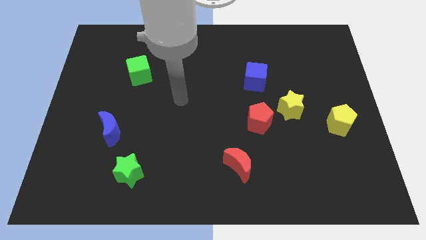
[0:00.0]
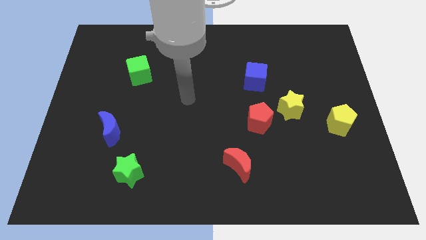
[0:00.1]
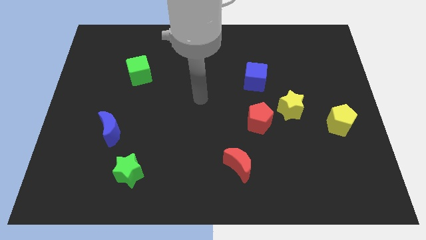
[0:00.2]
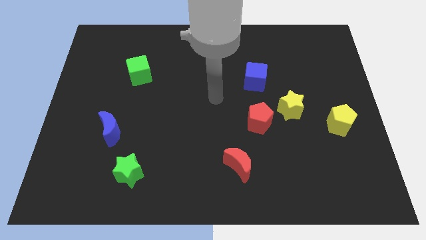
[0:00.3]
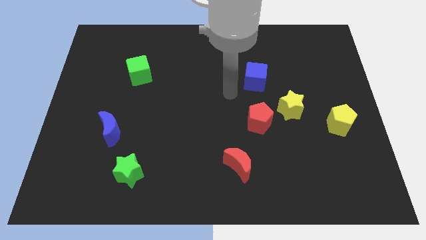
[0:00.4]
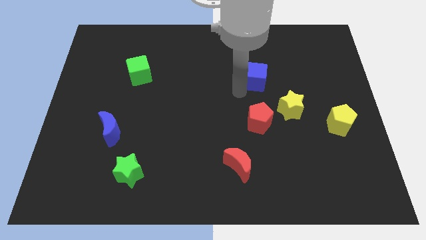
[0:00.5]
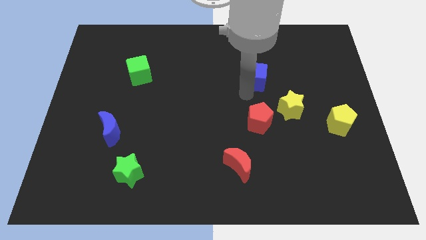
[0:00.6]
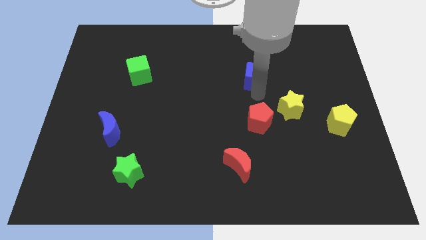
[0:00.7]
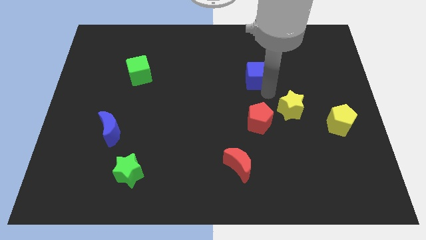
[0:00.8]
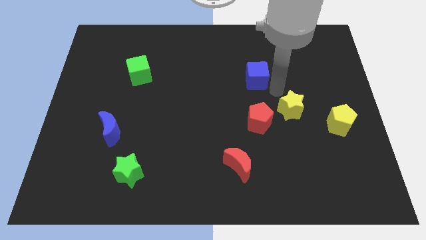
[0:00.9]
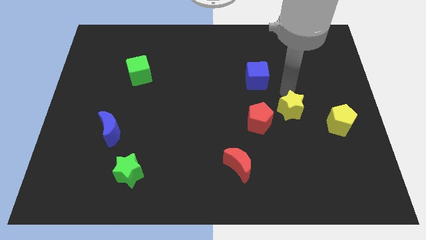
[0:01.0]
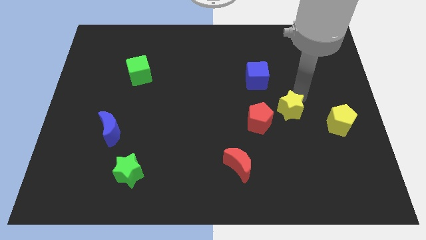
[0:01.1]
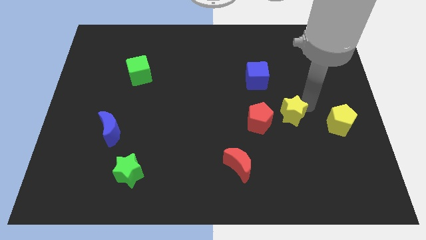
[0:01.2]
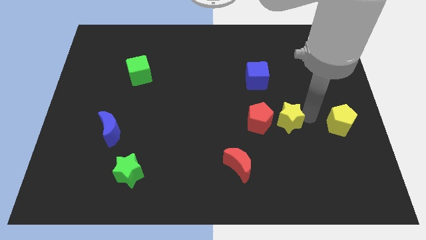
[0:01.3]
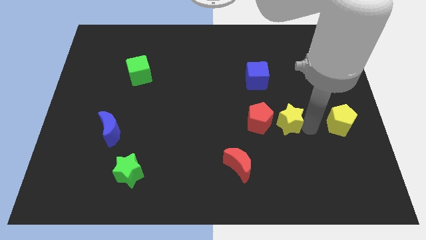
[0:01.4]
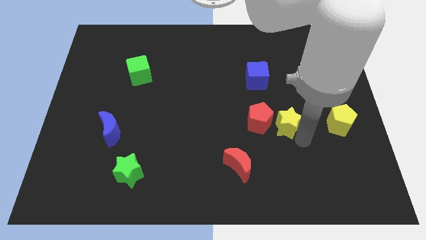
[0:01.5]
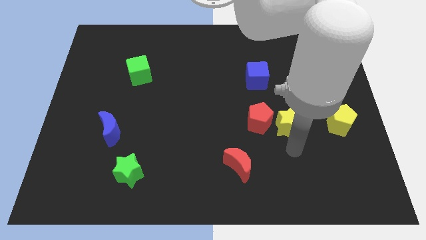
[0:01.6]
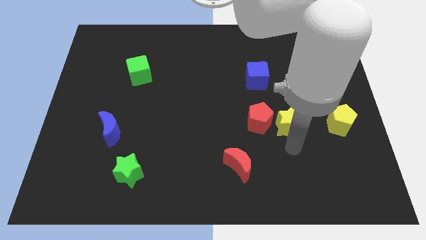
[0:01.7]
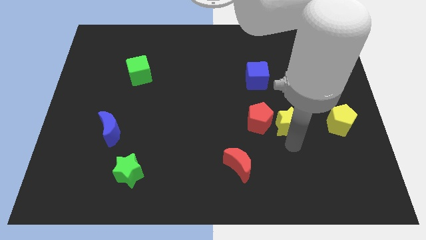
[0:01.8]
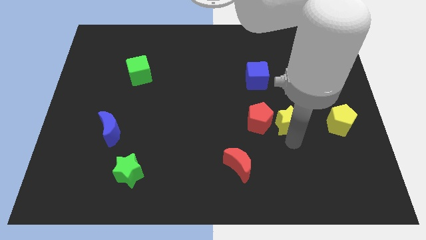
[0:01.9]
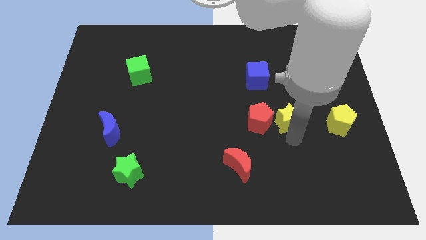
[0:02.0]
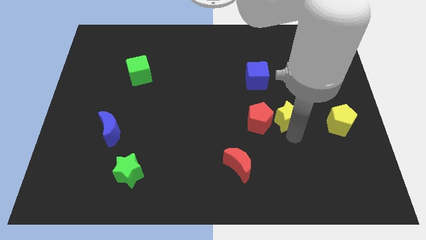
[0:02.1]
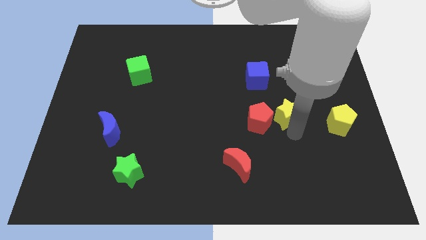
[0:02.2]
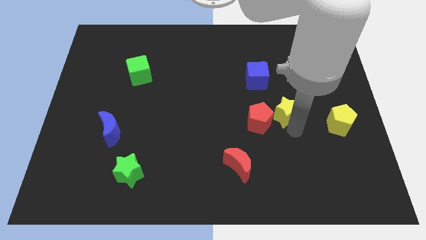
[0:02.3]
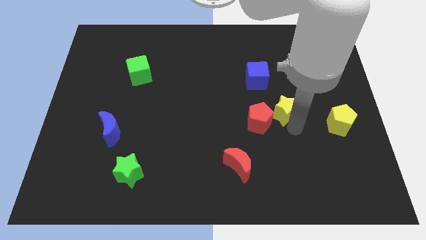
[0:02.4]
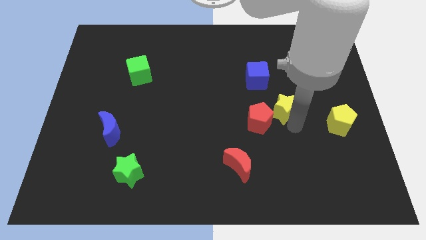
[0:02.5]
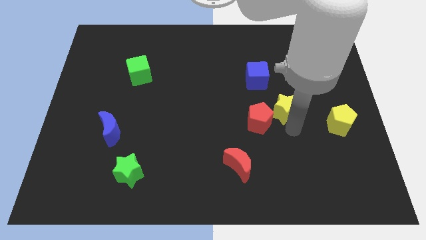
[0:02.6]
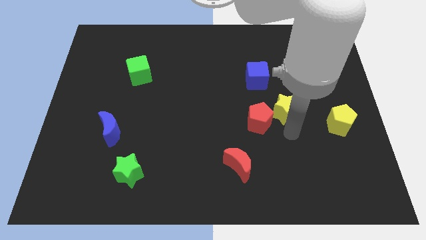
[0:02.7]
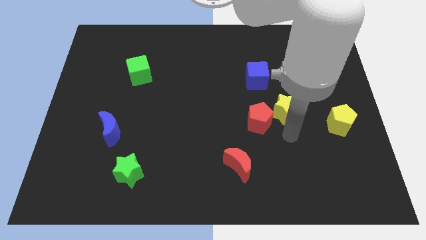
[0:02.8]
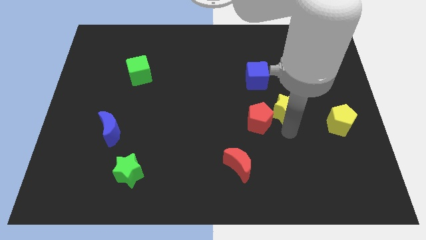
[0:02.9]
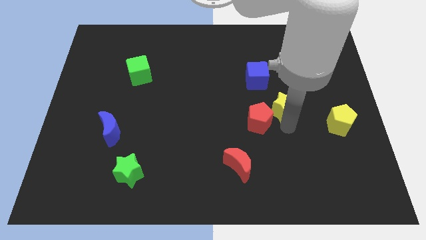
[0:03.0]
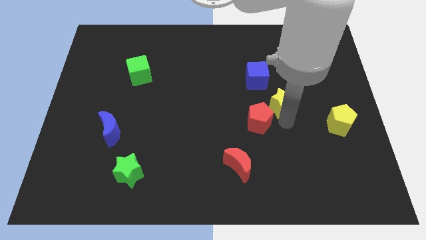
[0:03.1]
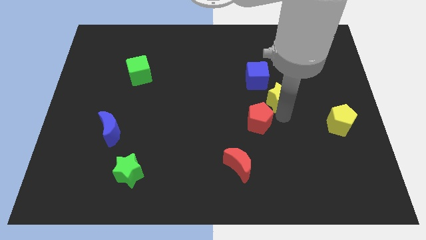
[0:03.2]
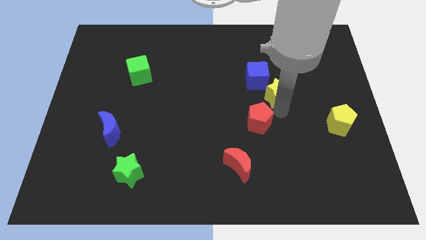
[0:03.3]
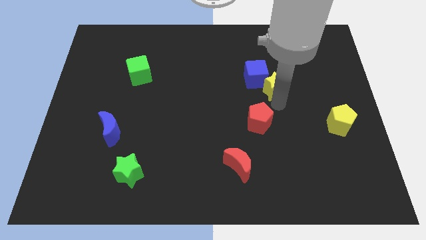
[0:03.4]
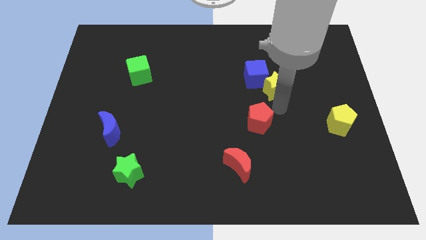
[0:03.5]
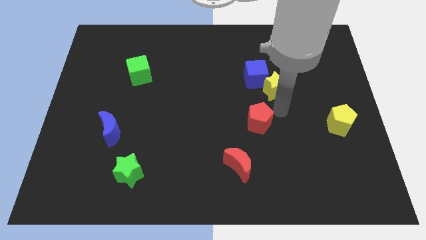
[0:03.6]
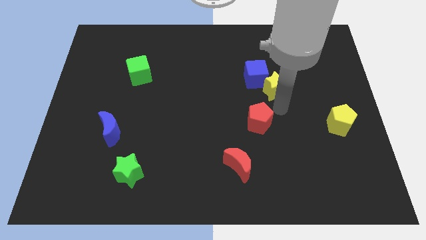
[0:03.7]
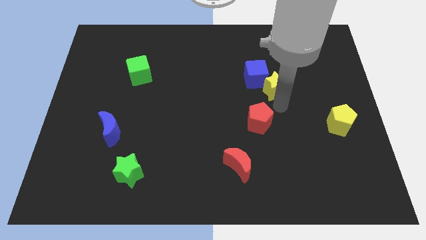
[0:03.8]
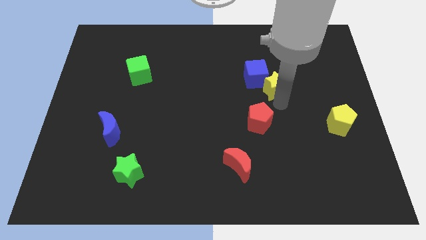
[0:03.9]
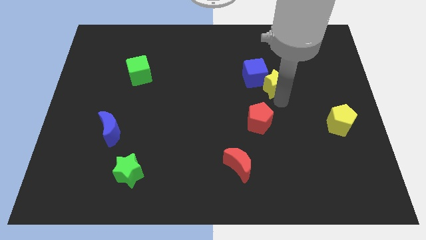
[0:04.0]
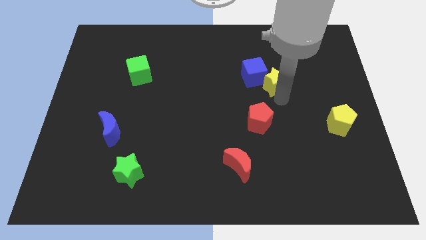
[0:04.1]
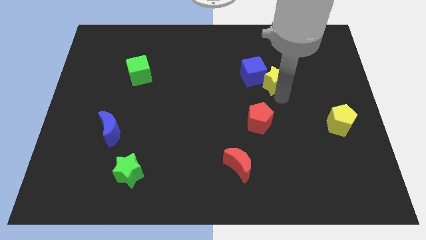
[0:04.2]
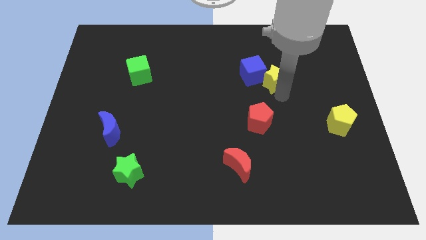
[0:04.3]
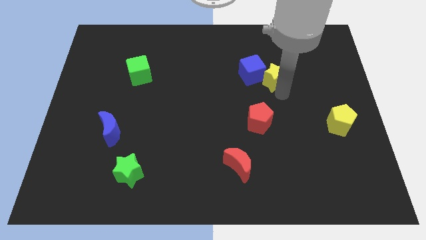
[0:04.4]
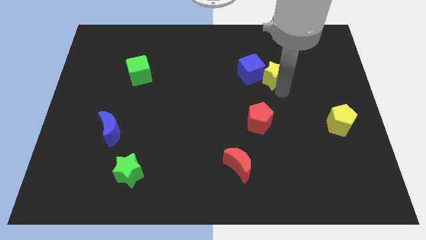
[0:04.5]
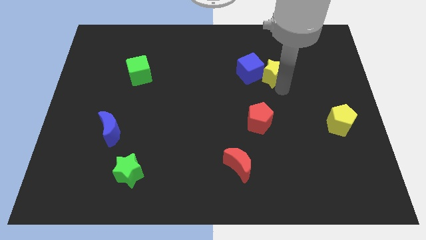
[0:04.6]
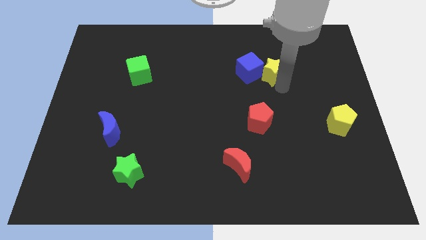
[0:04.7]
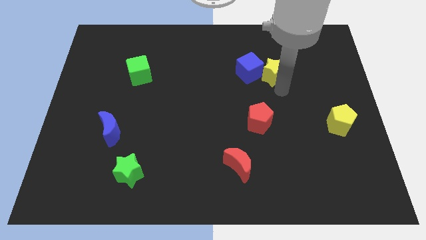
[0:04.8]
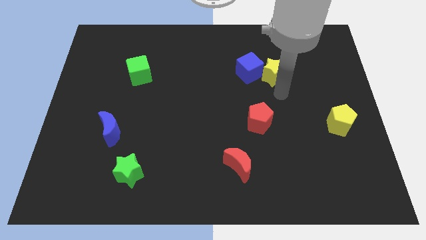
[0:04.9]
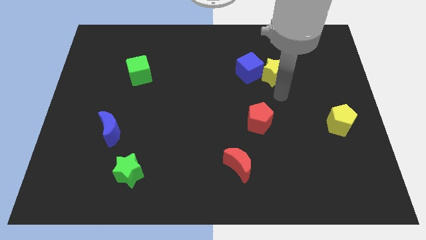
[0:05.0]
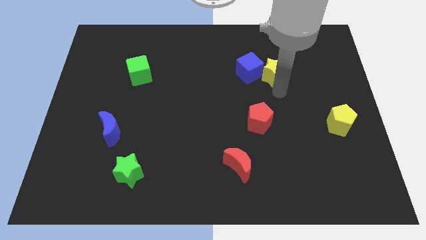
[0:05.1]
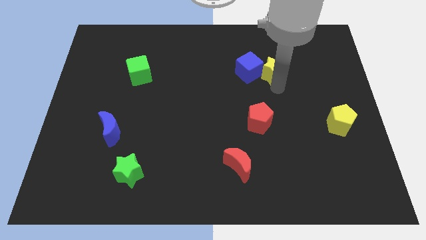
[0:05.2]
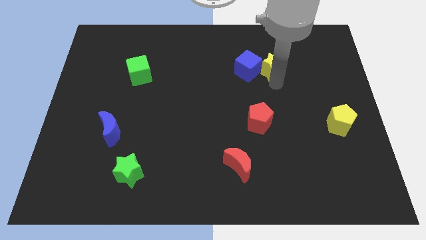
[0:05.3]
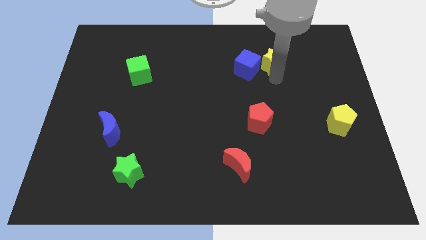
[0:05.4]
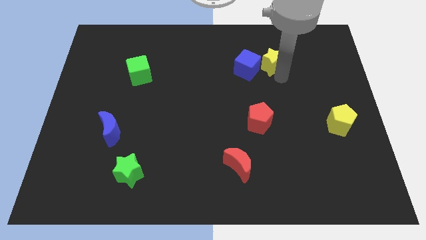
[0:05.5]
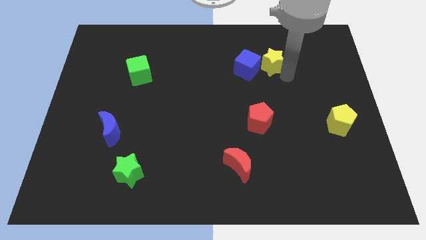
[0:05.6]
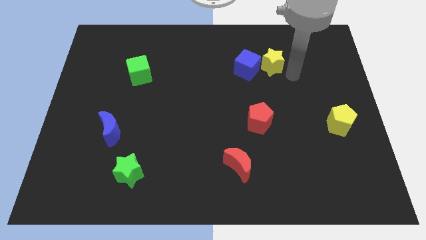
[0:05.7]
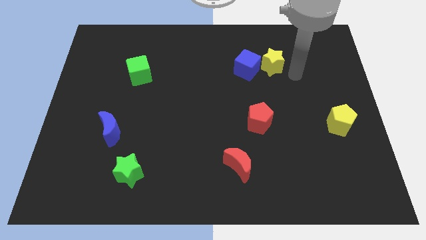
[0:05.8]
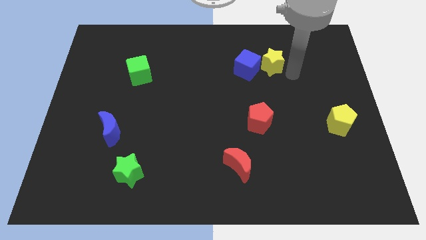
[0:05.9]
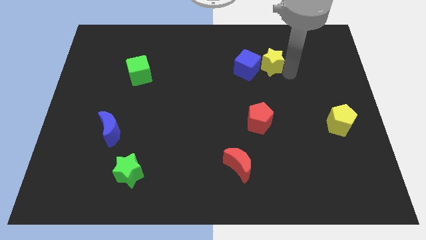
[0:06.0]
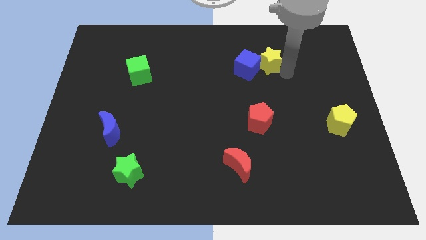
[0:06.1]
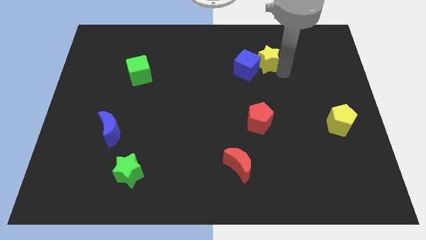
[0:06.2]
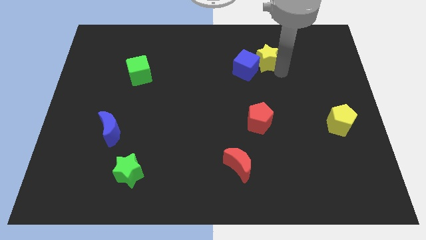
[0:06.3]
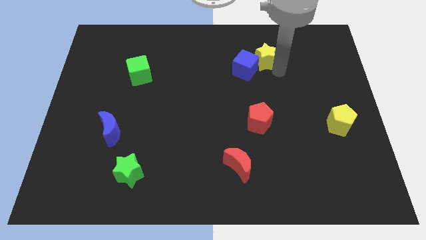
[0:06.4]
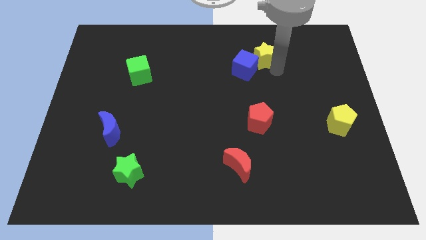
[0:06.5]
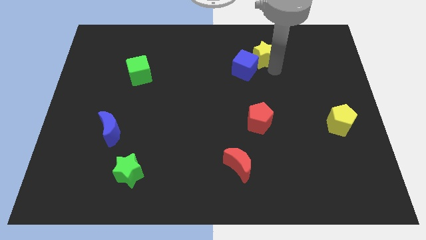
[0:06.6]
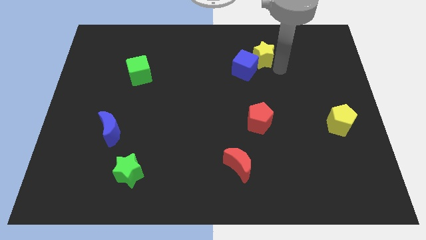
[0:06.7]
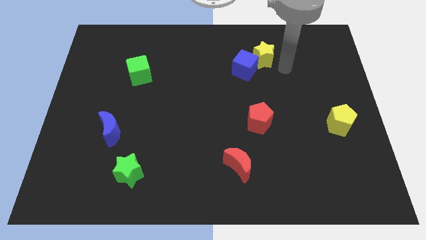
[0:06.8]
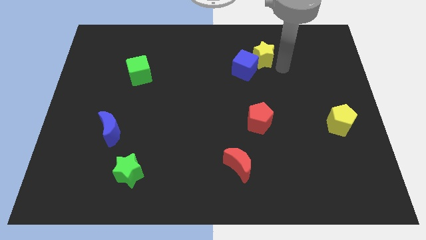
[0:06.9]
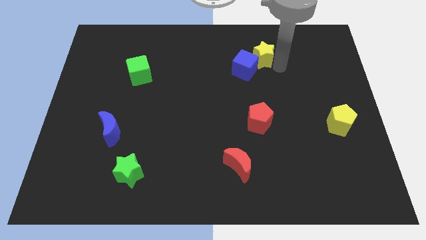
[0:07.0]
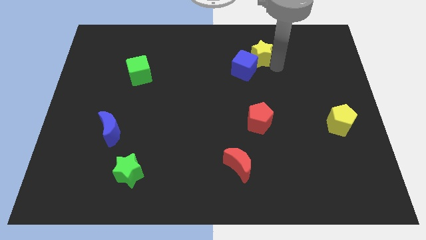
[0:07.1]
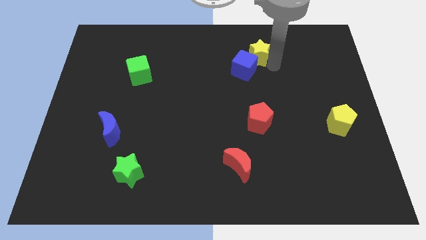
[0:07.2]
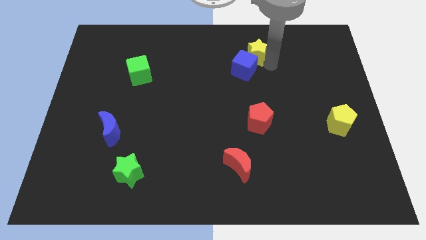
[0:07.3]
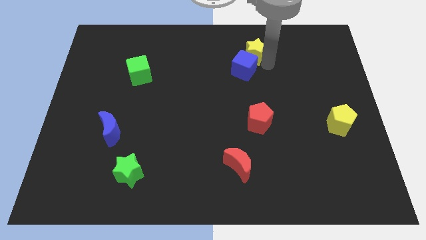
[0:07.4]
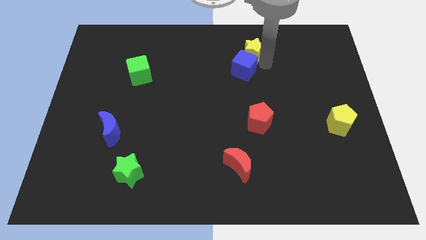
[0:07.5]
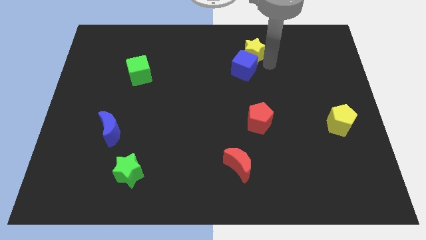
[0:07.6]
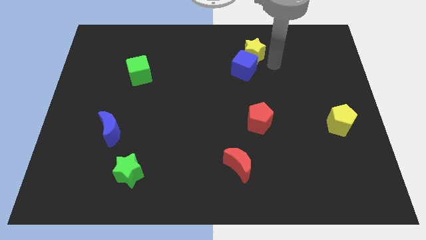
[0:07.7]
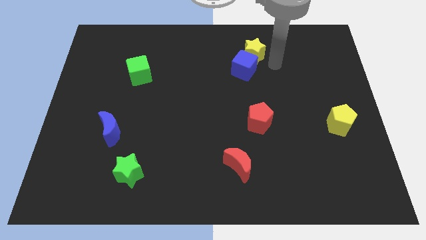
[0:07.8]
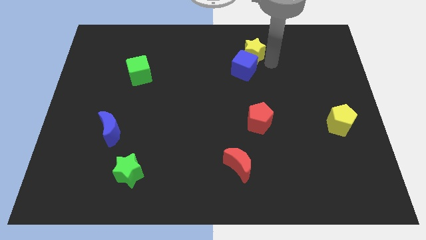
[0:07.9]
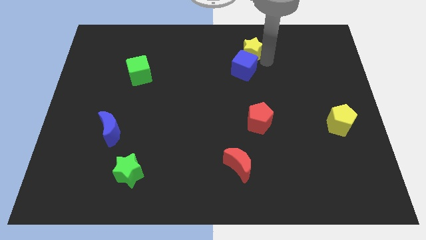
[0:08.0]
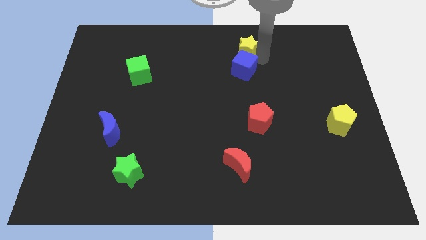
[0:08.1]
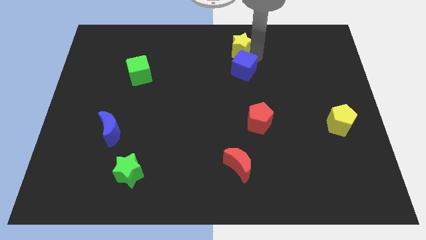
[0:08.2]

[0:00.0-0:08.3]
move the yellow star to the top
